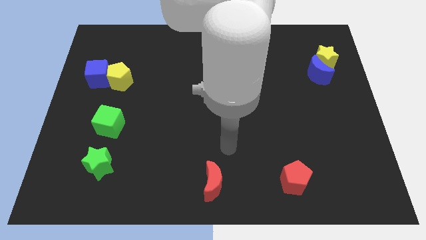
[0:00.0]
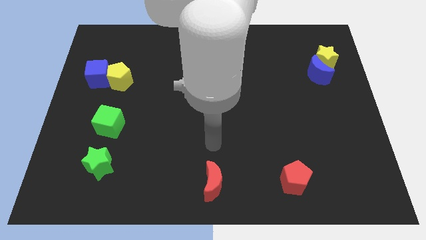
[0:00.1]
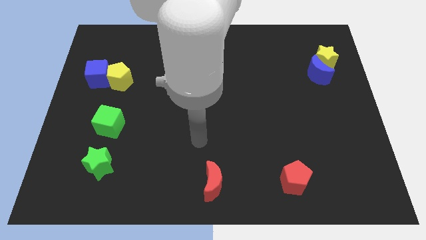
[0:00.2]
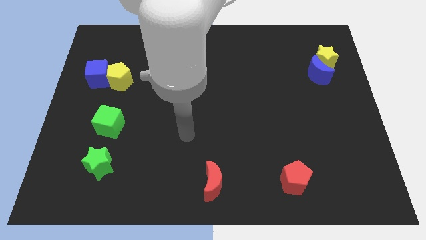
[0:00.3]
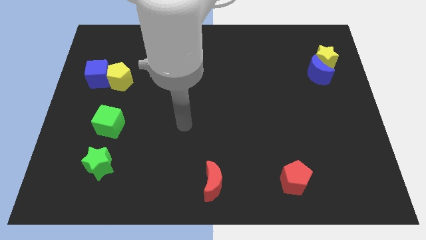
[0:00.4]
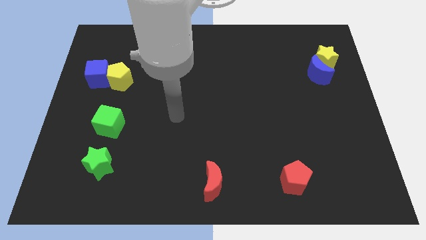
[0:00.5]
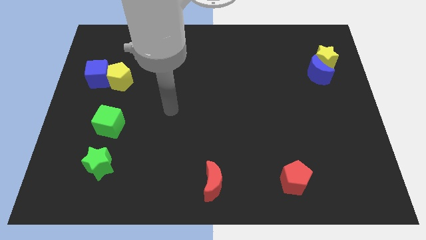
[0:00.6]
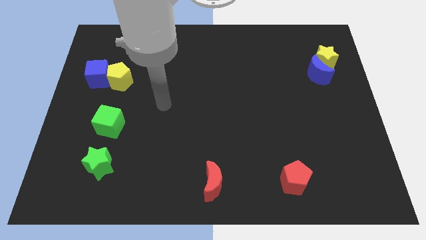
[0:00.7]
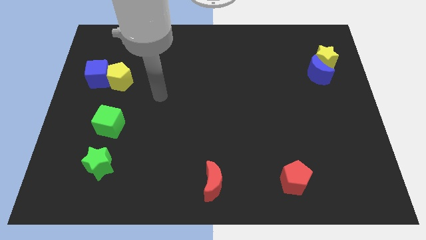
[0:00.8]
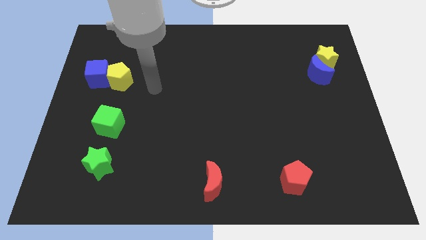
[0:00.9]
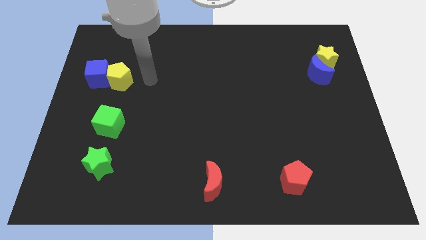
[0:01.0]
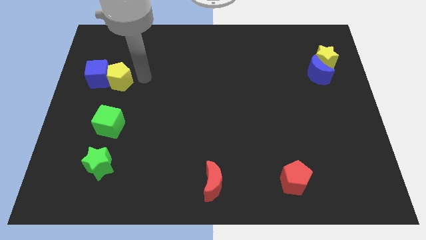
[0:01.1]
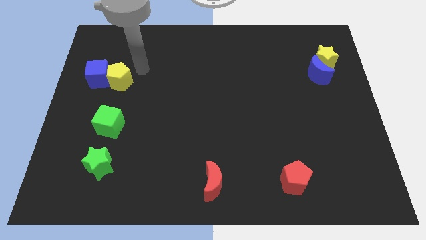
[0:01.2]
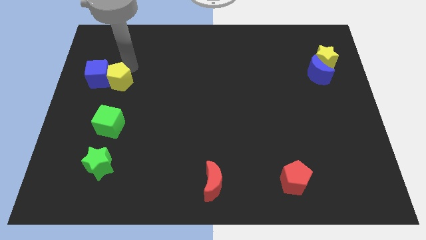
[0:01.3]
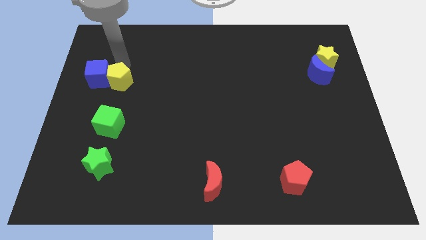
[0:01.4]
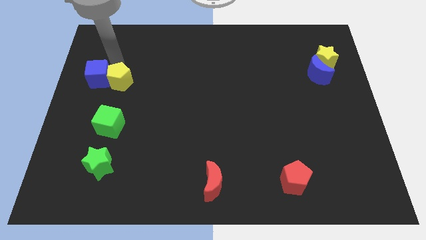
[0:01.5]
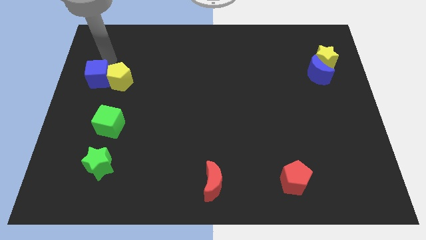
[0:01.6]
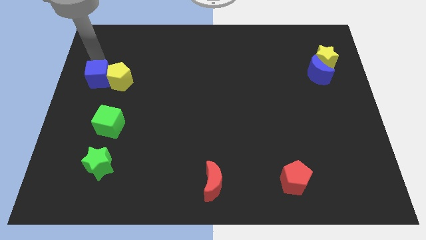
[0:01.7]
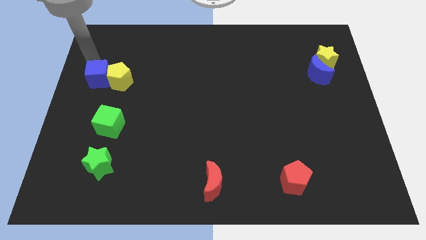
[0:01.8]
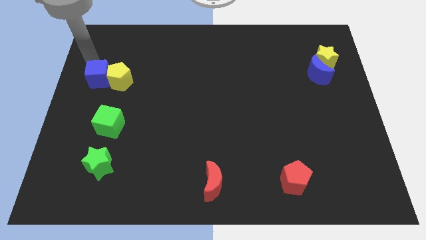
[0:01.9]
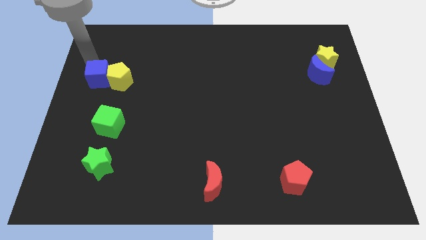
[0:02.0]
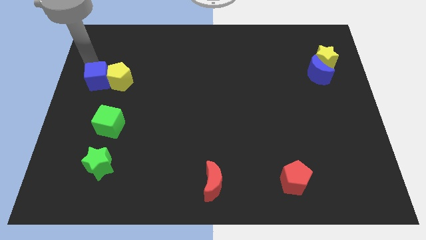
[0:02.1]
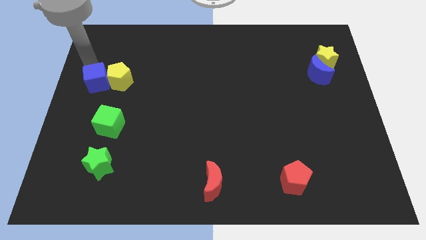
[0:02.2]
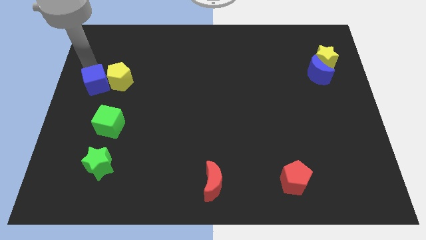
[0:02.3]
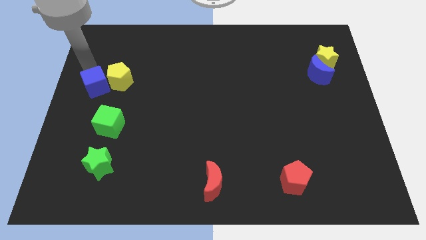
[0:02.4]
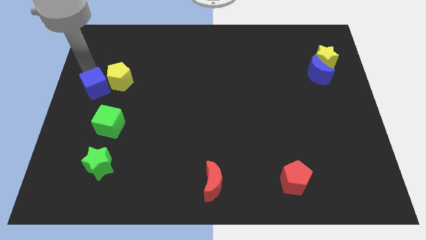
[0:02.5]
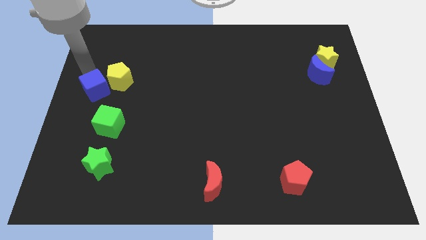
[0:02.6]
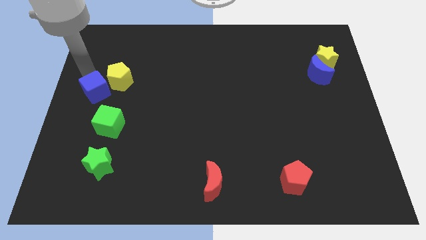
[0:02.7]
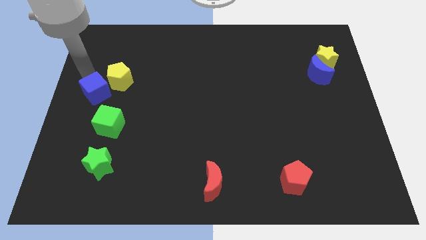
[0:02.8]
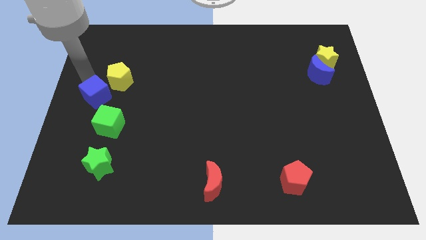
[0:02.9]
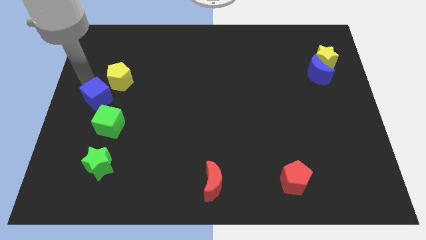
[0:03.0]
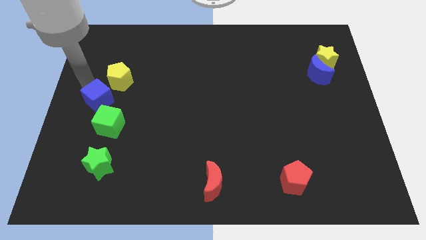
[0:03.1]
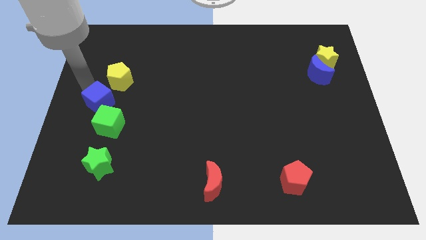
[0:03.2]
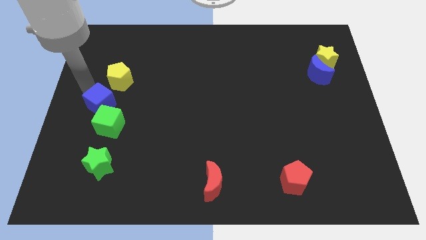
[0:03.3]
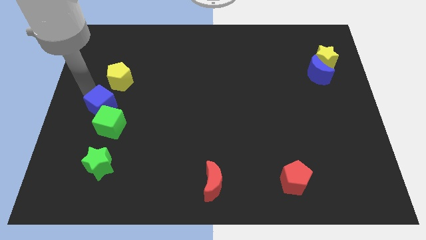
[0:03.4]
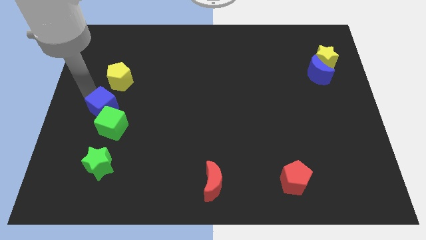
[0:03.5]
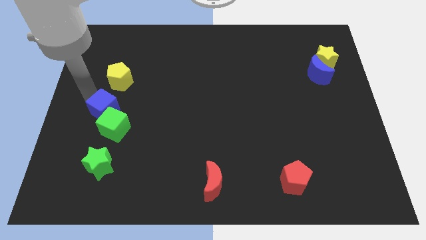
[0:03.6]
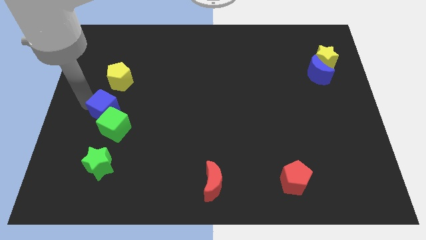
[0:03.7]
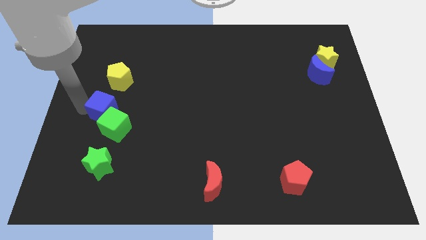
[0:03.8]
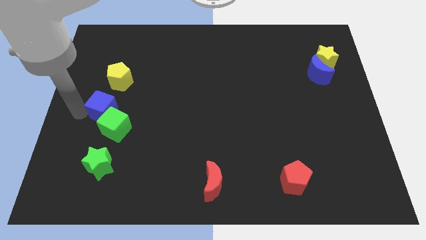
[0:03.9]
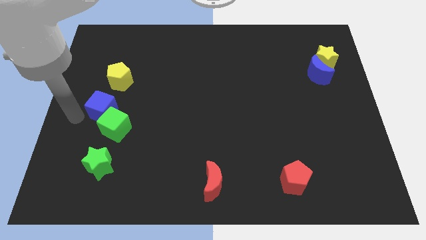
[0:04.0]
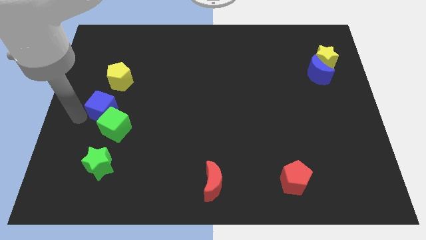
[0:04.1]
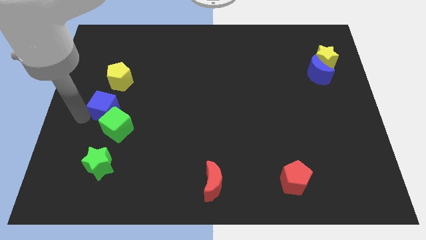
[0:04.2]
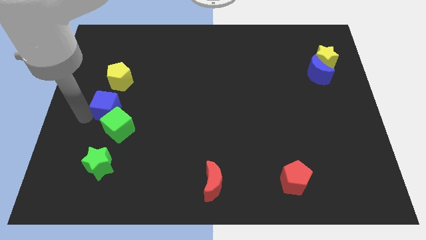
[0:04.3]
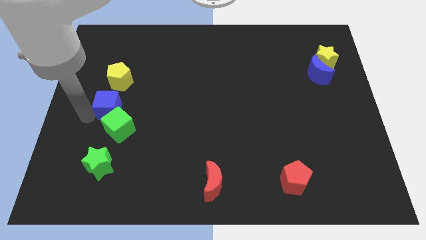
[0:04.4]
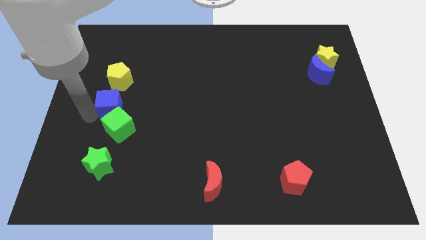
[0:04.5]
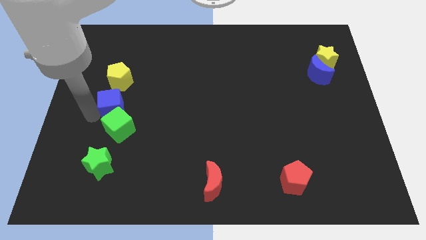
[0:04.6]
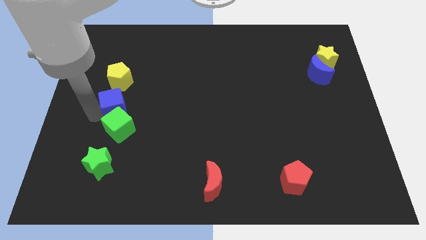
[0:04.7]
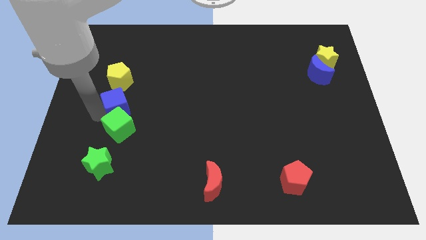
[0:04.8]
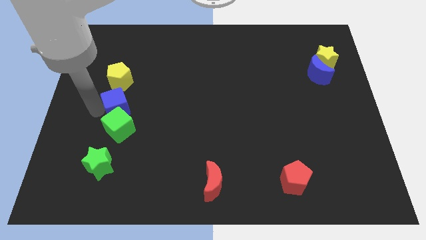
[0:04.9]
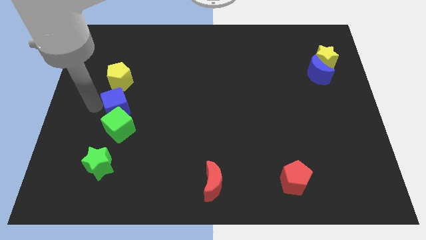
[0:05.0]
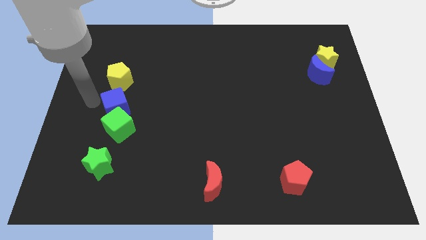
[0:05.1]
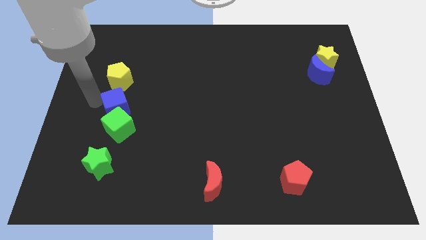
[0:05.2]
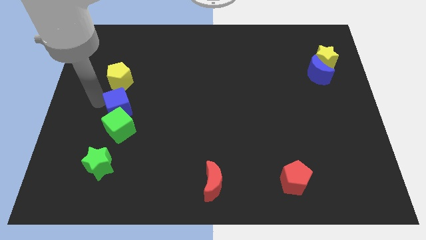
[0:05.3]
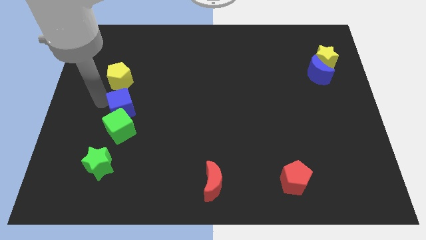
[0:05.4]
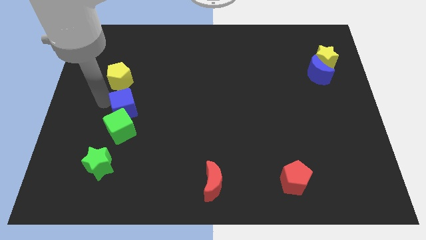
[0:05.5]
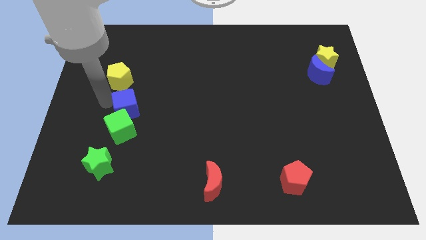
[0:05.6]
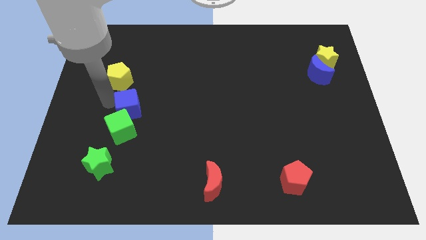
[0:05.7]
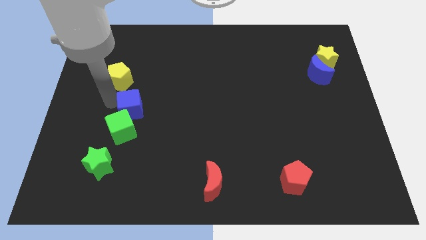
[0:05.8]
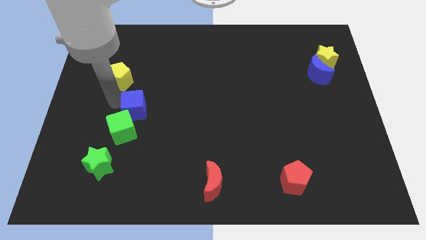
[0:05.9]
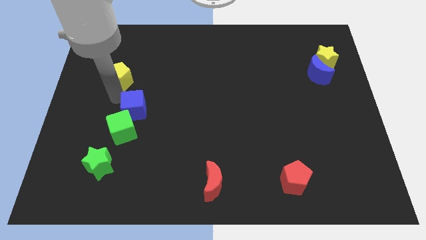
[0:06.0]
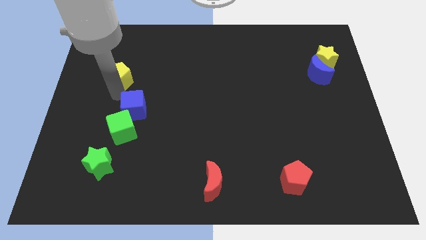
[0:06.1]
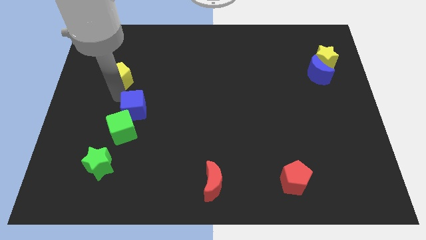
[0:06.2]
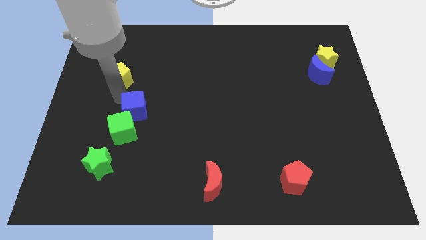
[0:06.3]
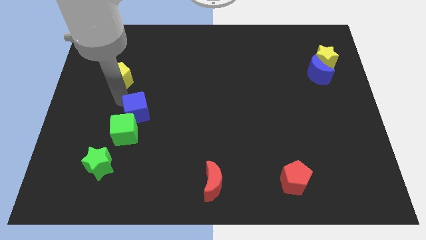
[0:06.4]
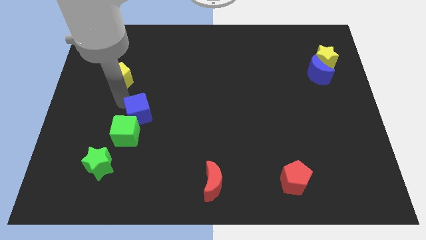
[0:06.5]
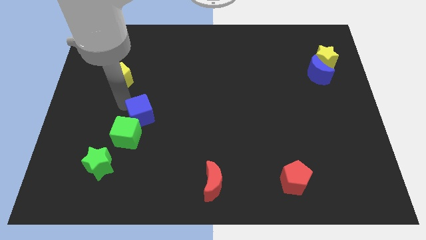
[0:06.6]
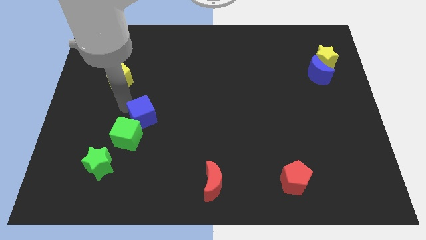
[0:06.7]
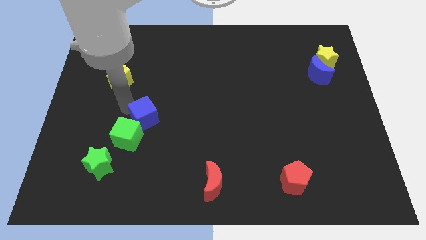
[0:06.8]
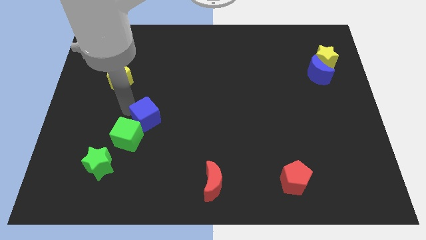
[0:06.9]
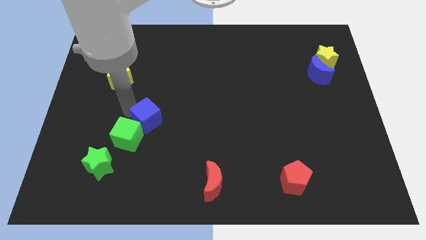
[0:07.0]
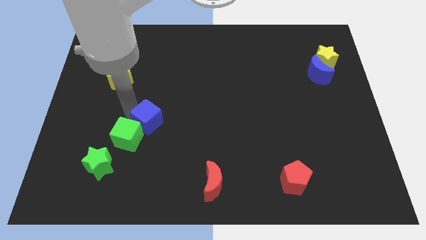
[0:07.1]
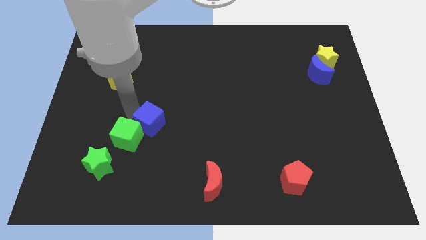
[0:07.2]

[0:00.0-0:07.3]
move the blue cube down and then right

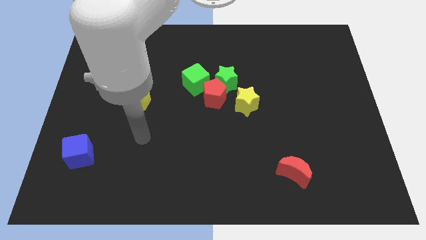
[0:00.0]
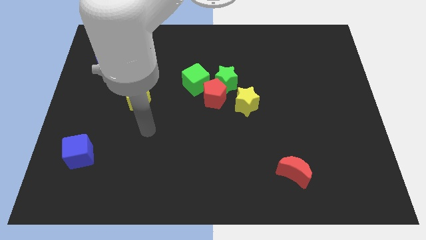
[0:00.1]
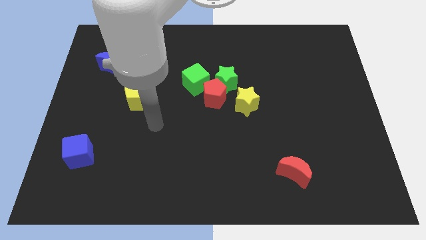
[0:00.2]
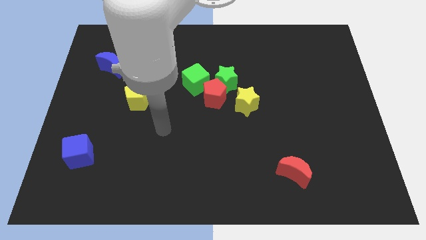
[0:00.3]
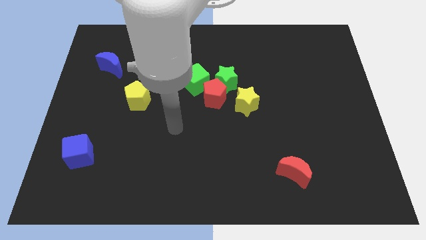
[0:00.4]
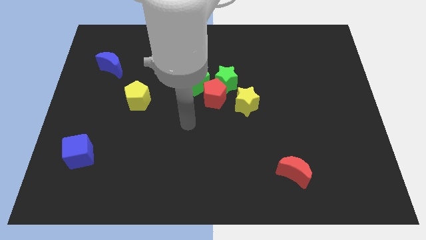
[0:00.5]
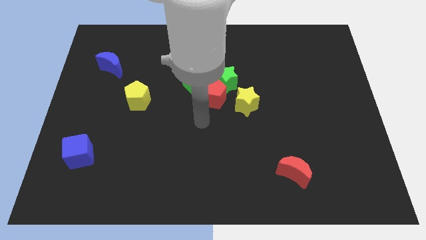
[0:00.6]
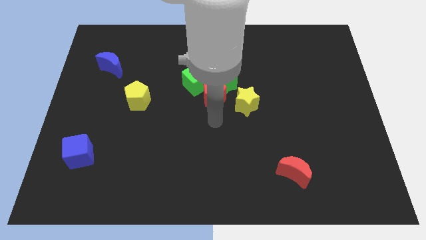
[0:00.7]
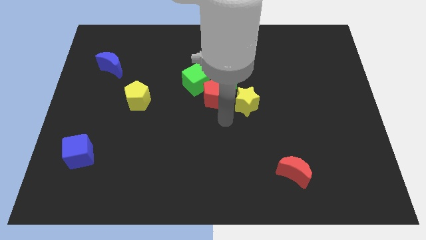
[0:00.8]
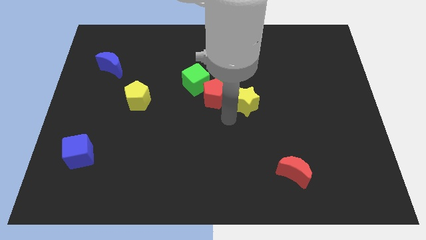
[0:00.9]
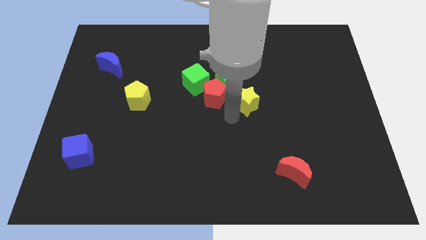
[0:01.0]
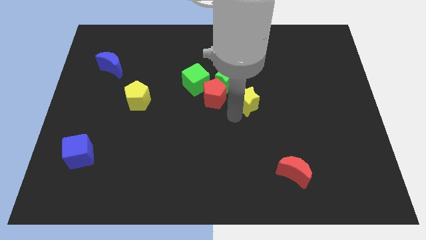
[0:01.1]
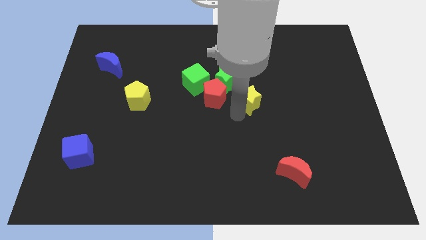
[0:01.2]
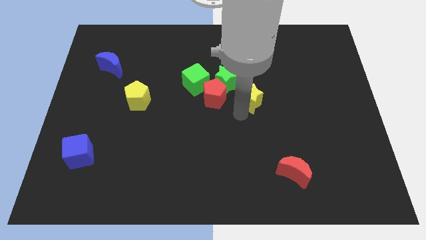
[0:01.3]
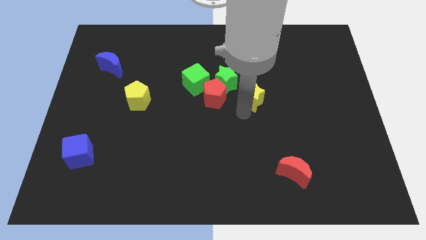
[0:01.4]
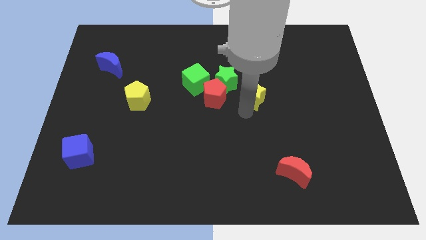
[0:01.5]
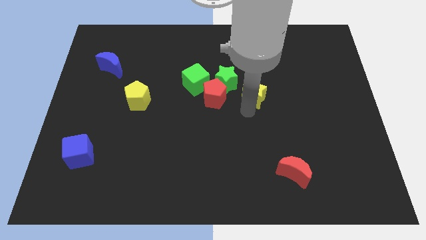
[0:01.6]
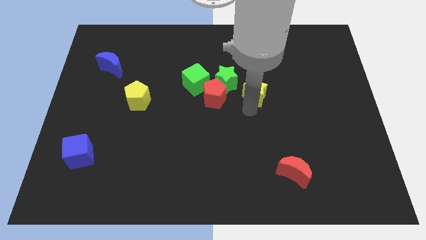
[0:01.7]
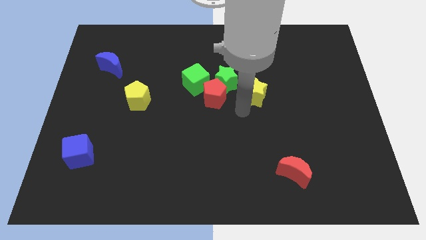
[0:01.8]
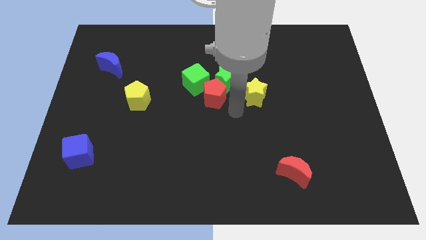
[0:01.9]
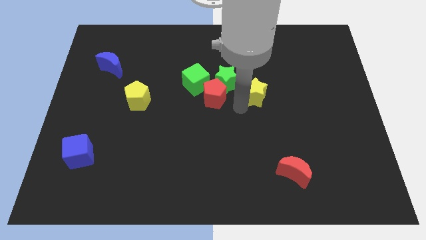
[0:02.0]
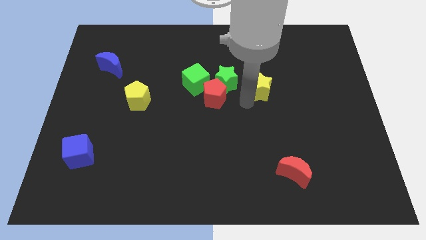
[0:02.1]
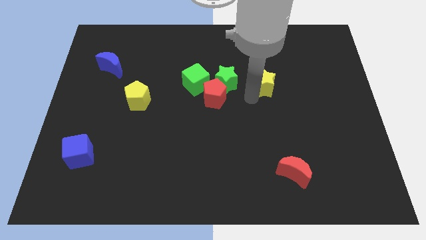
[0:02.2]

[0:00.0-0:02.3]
move the yellow star diagonally upwards and right slightly
